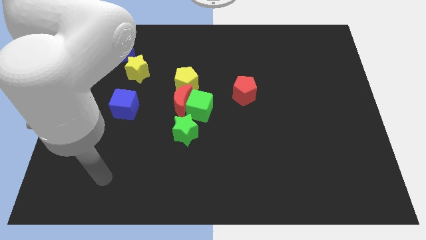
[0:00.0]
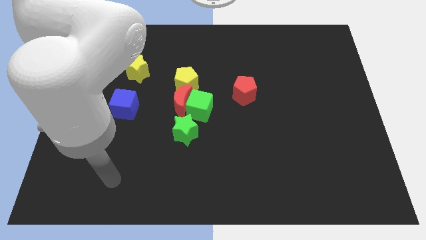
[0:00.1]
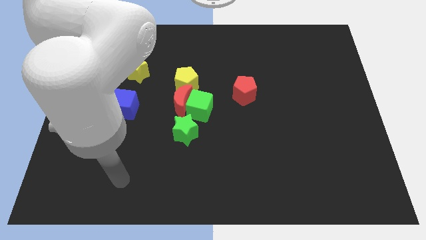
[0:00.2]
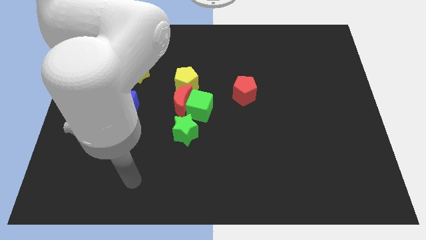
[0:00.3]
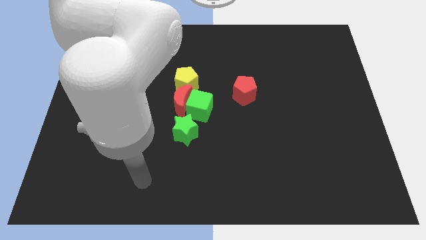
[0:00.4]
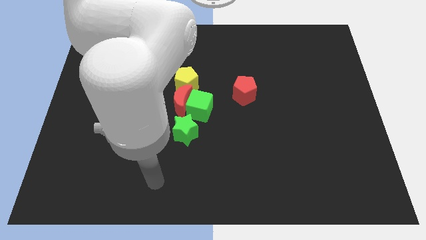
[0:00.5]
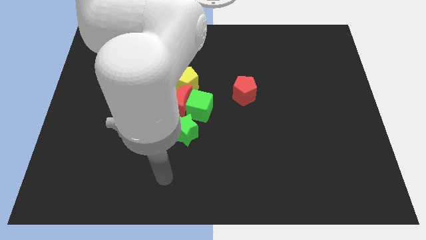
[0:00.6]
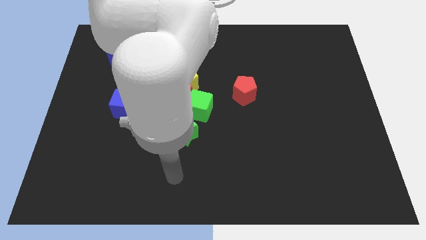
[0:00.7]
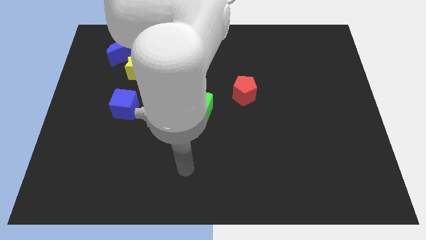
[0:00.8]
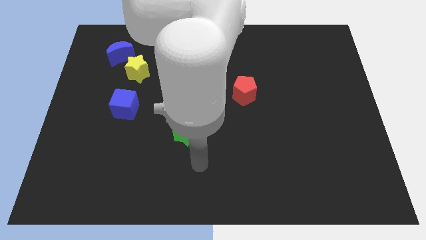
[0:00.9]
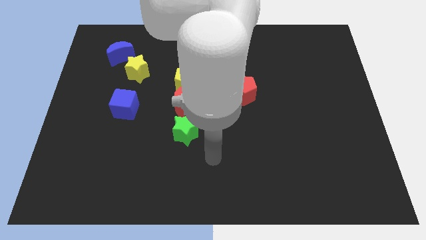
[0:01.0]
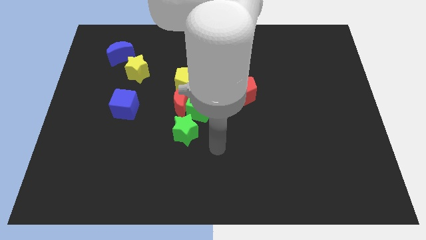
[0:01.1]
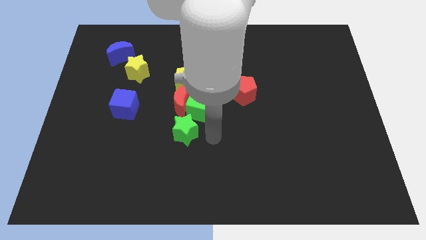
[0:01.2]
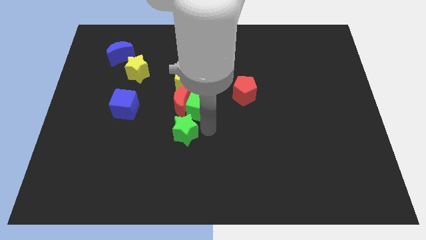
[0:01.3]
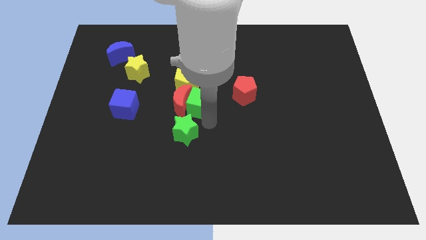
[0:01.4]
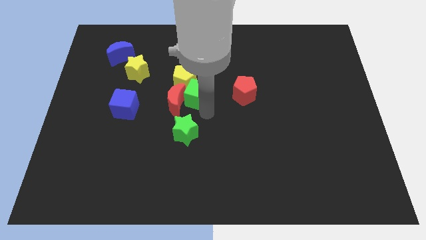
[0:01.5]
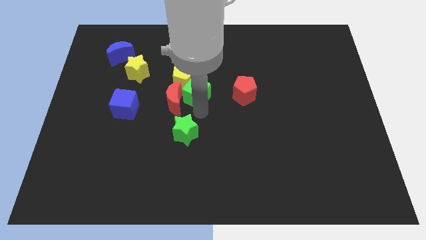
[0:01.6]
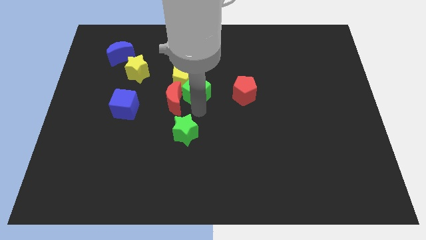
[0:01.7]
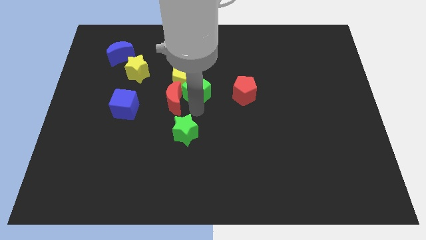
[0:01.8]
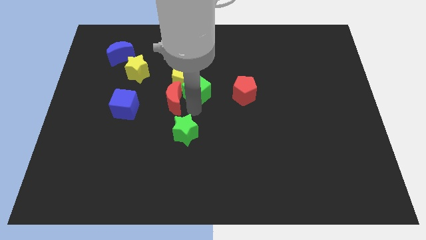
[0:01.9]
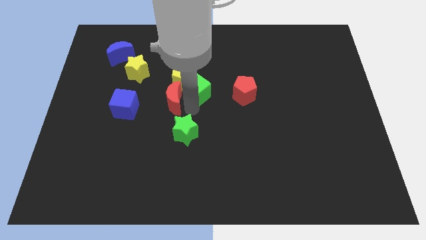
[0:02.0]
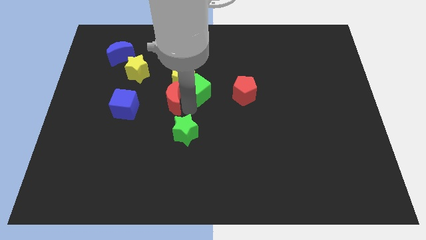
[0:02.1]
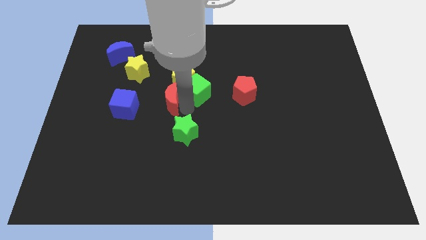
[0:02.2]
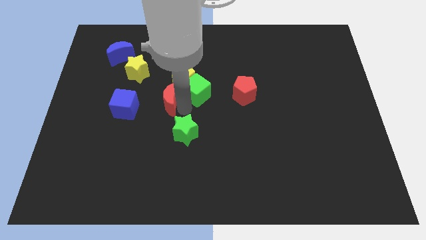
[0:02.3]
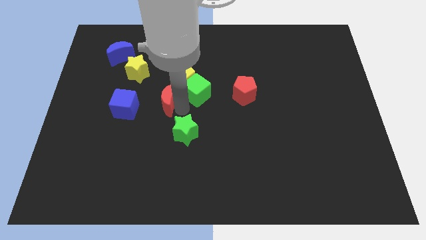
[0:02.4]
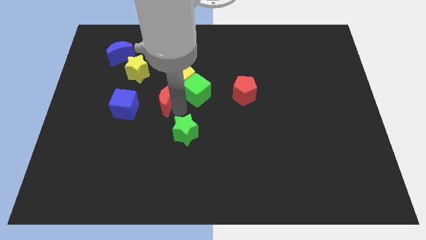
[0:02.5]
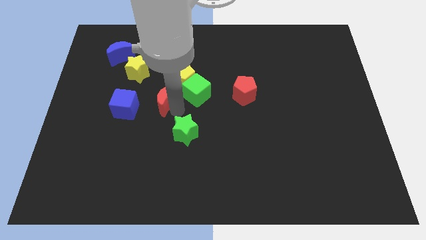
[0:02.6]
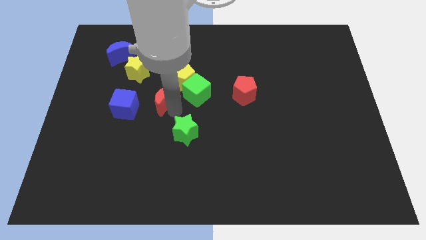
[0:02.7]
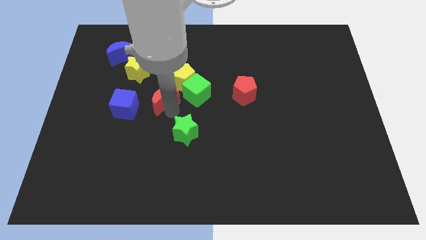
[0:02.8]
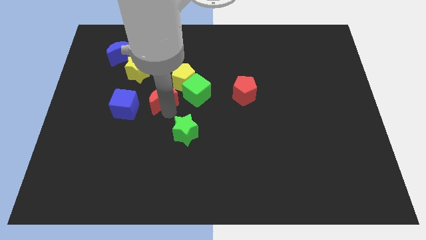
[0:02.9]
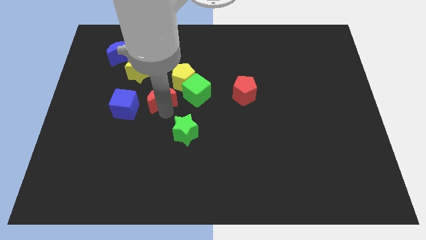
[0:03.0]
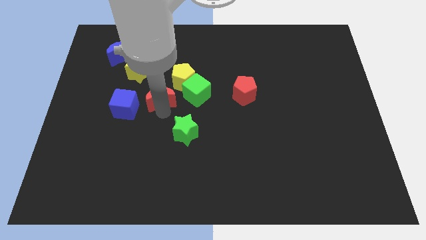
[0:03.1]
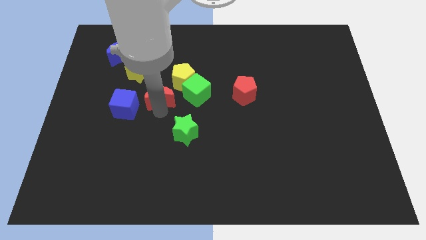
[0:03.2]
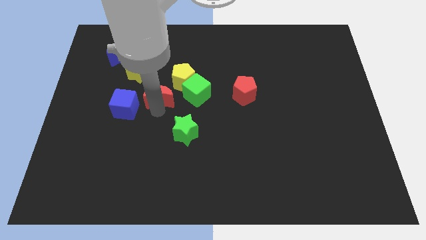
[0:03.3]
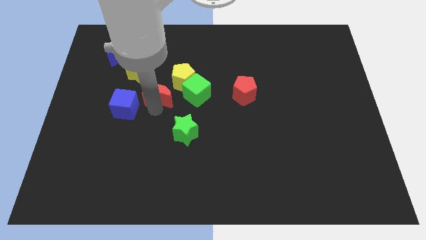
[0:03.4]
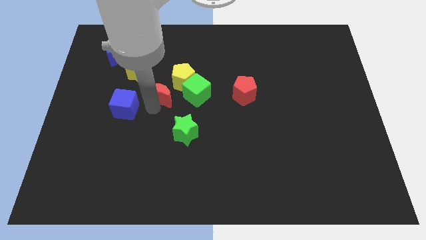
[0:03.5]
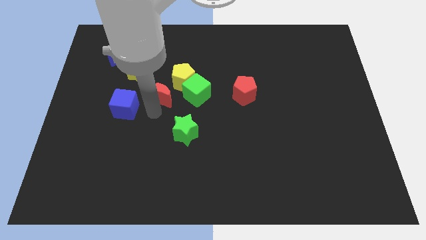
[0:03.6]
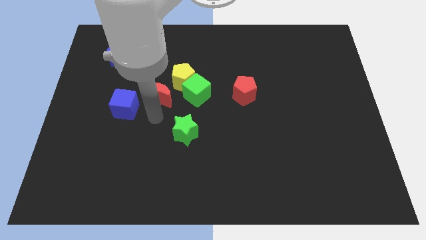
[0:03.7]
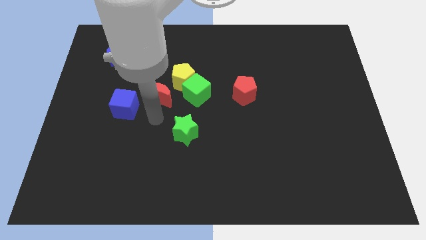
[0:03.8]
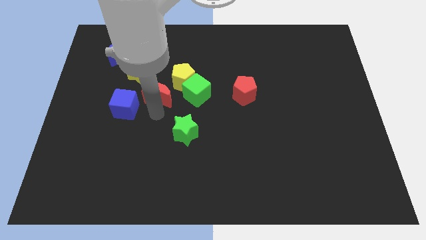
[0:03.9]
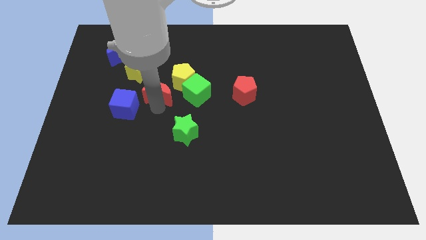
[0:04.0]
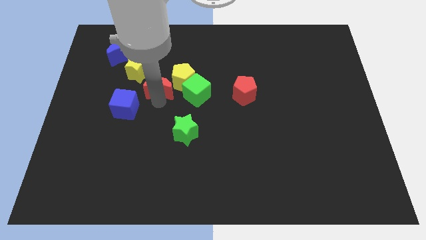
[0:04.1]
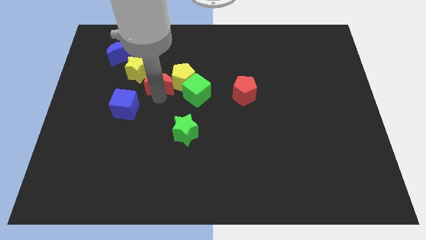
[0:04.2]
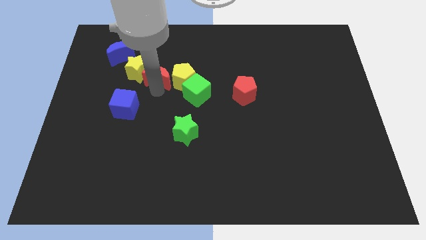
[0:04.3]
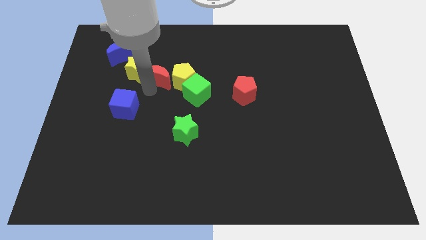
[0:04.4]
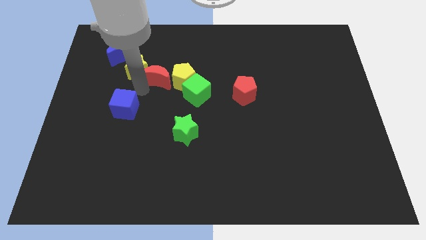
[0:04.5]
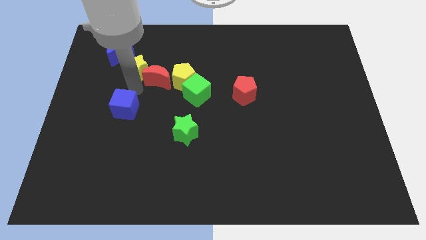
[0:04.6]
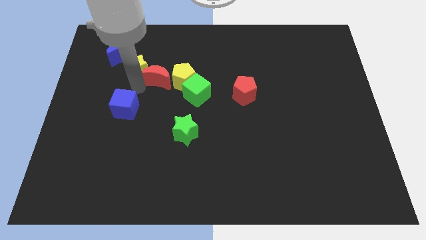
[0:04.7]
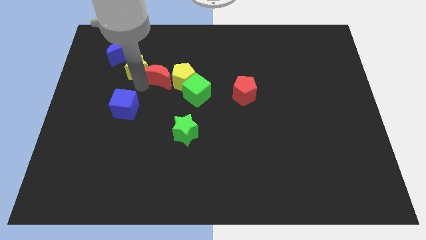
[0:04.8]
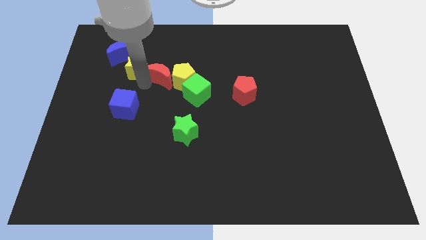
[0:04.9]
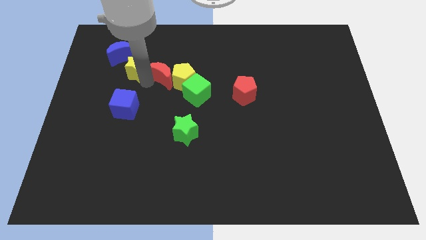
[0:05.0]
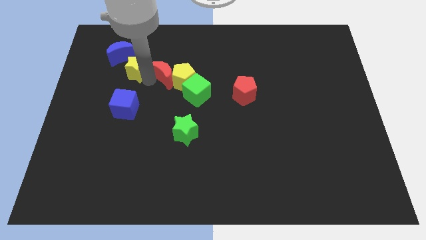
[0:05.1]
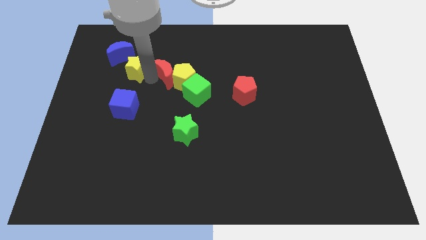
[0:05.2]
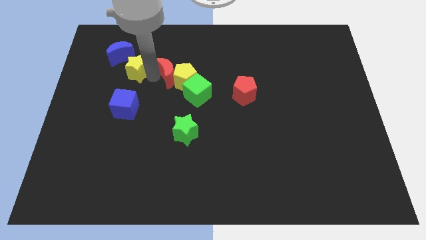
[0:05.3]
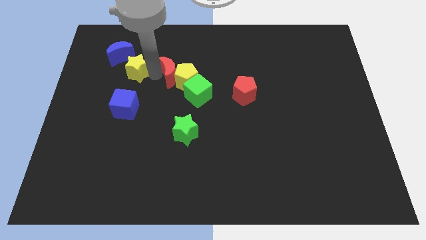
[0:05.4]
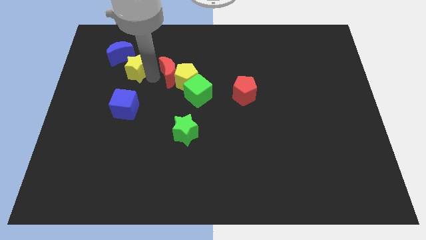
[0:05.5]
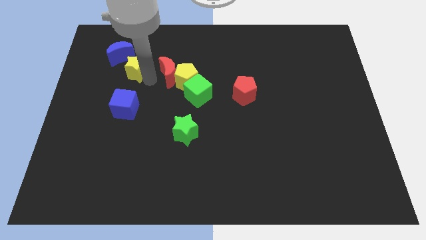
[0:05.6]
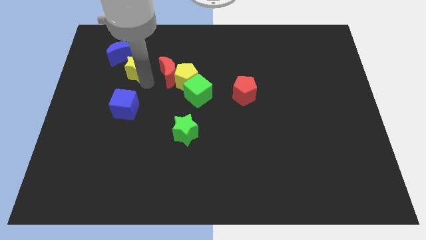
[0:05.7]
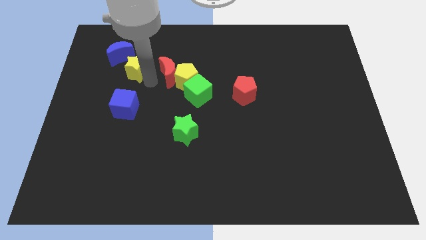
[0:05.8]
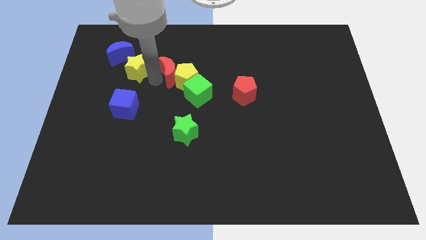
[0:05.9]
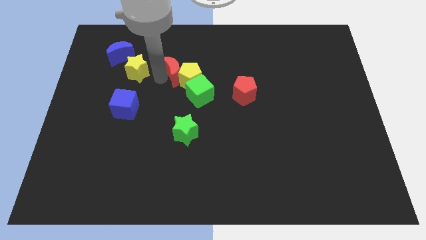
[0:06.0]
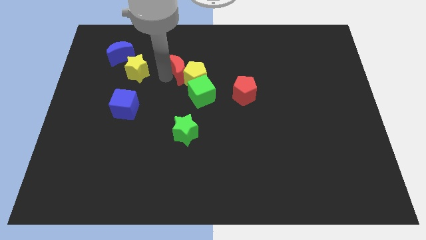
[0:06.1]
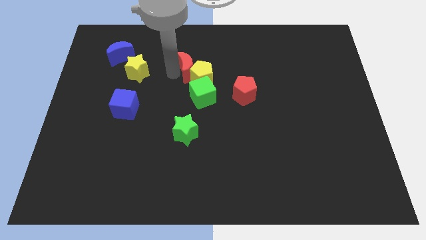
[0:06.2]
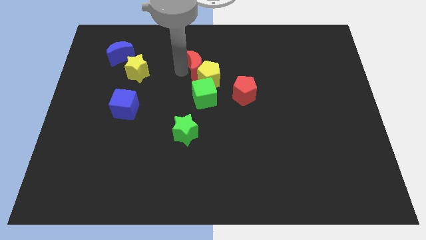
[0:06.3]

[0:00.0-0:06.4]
push the red moon a bit up and right diagonally

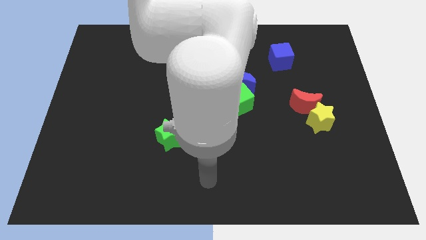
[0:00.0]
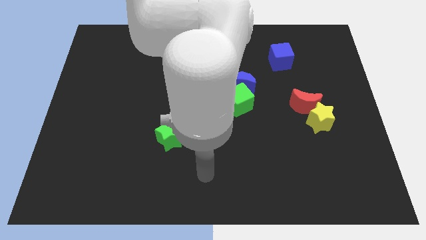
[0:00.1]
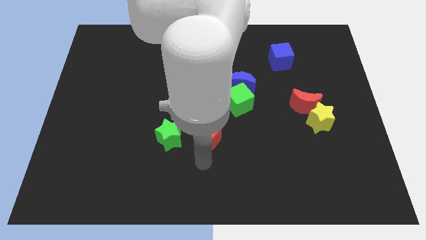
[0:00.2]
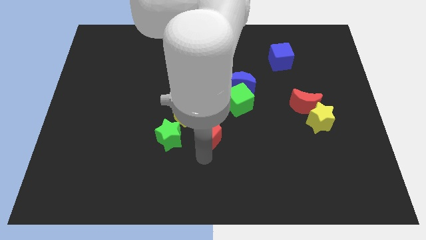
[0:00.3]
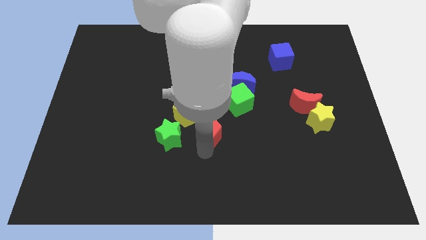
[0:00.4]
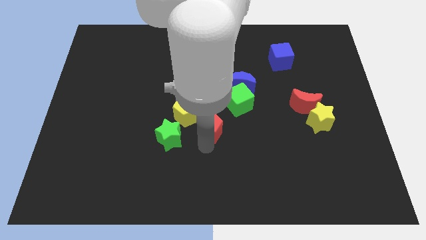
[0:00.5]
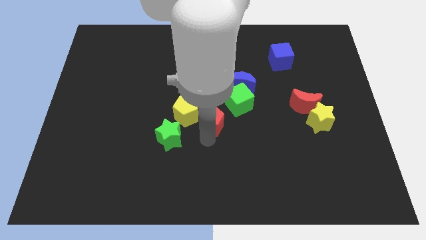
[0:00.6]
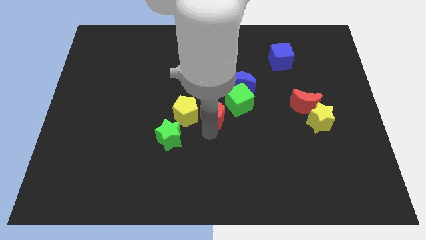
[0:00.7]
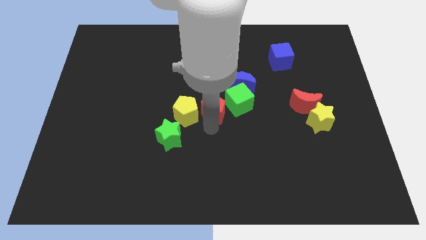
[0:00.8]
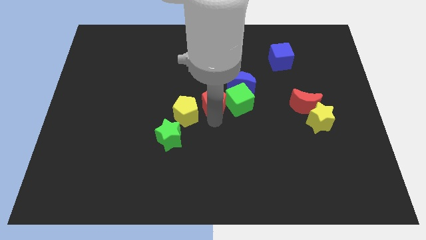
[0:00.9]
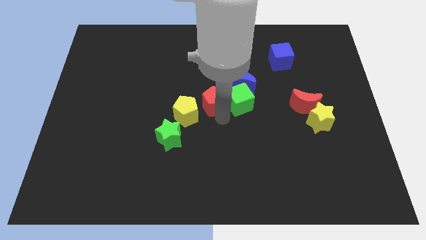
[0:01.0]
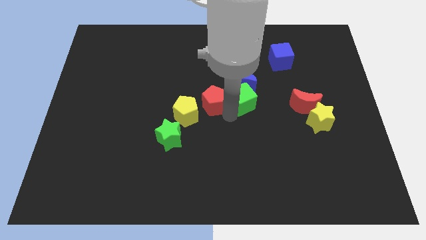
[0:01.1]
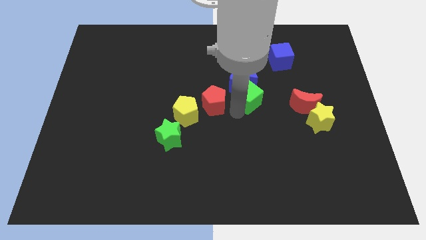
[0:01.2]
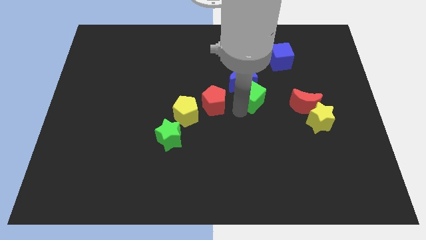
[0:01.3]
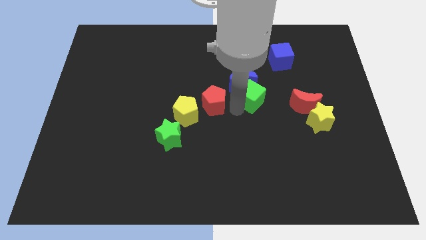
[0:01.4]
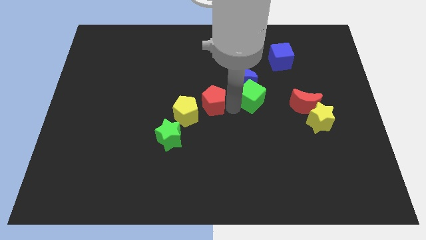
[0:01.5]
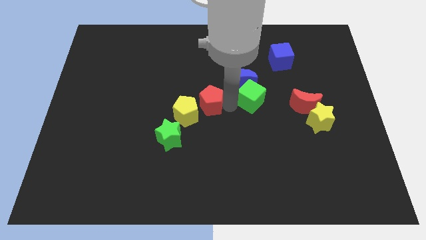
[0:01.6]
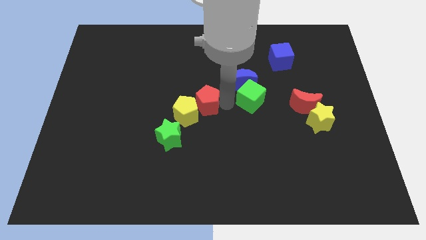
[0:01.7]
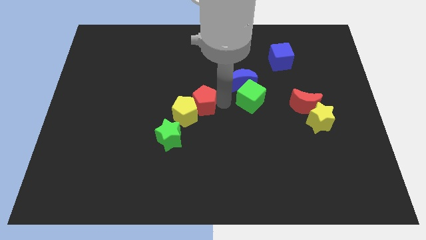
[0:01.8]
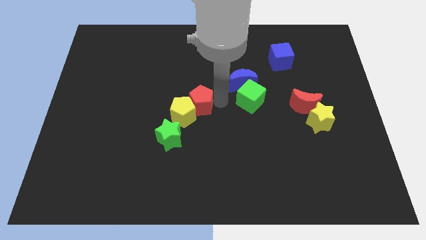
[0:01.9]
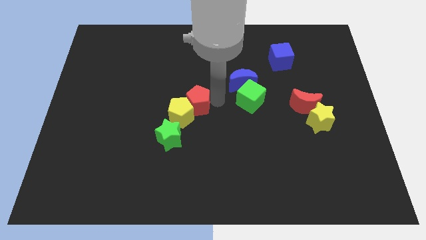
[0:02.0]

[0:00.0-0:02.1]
push the red pentagon diagonally up and to the left a little
